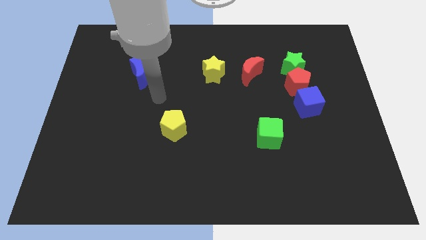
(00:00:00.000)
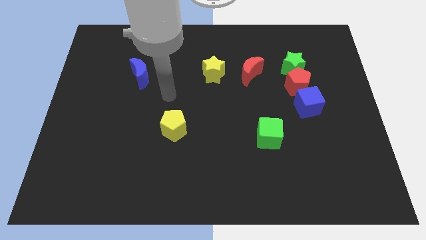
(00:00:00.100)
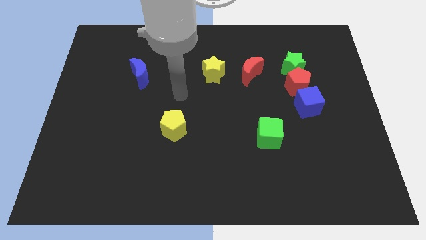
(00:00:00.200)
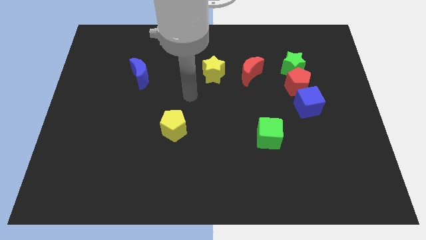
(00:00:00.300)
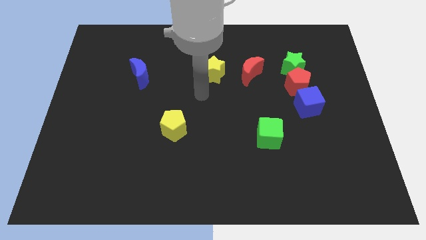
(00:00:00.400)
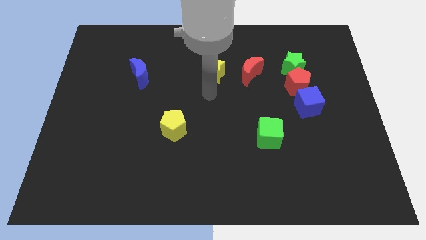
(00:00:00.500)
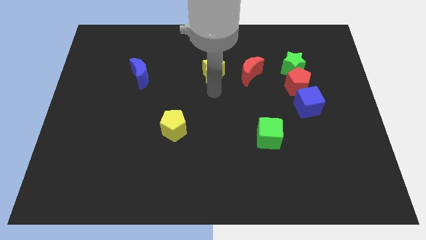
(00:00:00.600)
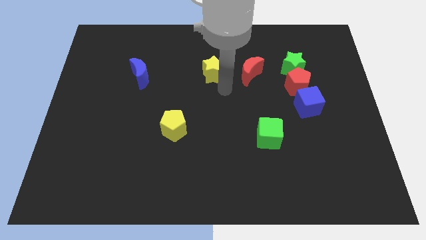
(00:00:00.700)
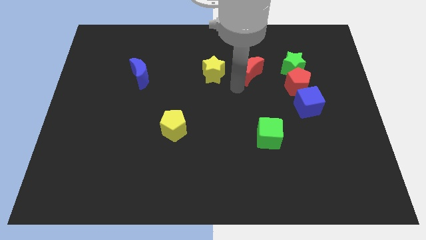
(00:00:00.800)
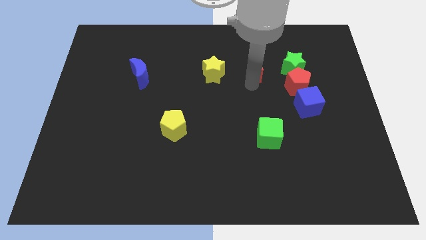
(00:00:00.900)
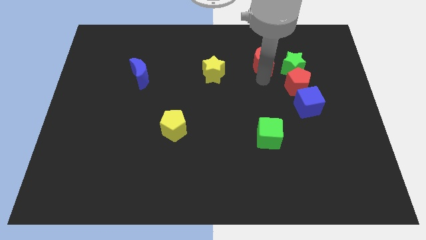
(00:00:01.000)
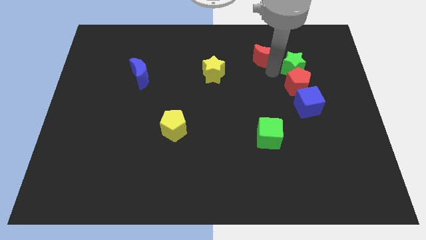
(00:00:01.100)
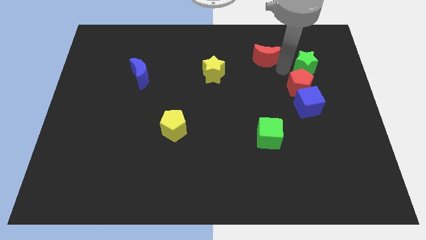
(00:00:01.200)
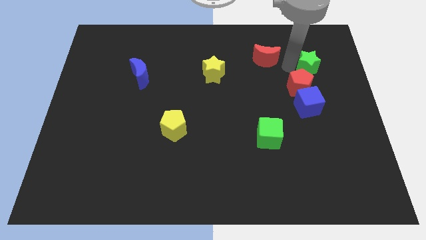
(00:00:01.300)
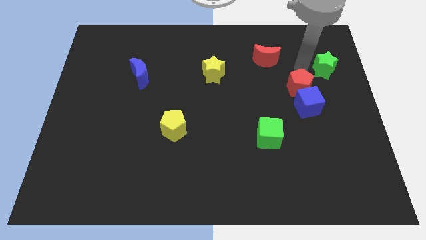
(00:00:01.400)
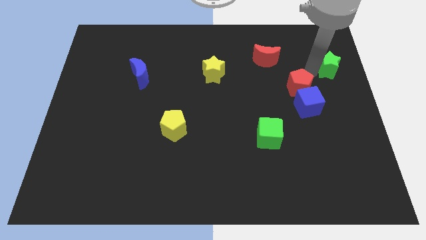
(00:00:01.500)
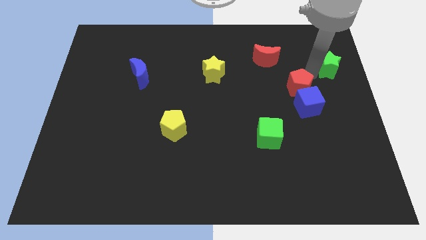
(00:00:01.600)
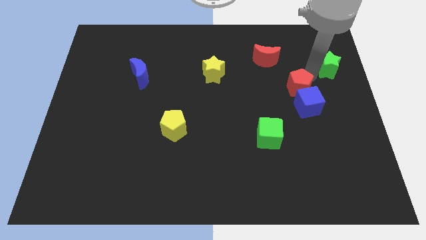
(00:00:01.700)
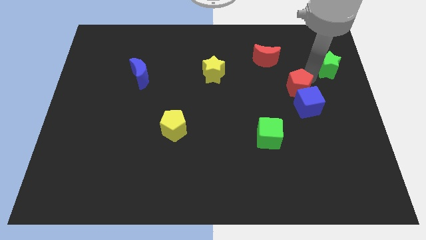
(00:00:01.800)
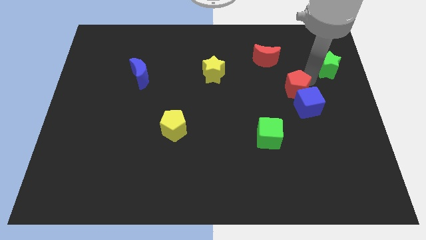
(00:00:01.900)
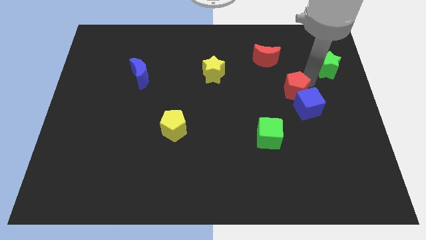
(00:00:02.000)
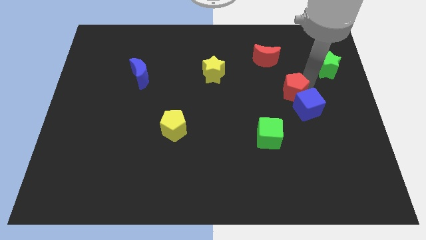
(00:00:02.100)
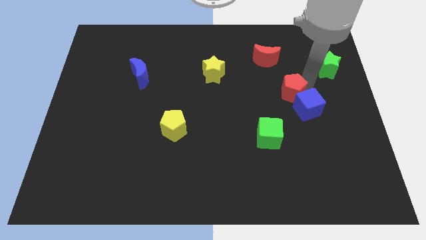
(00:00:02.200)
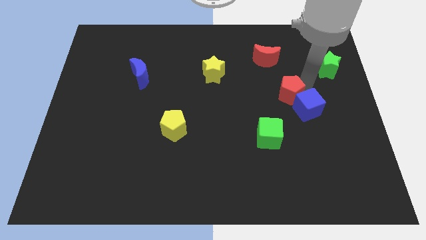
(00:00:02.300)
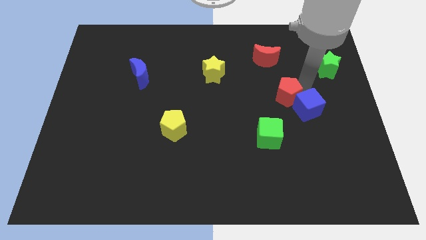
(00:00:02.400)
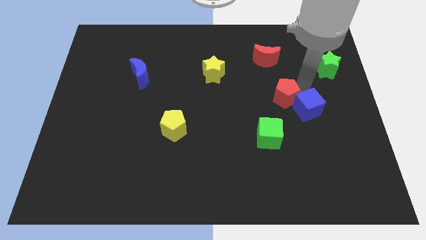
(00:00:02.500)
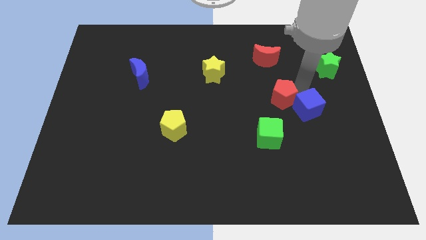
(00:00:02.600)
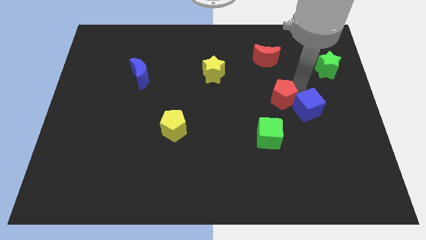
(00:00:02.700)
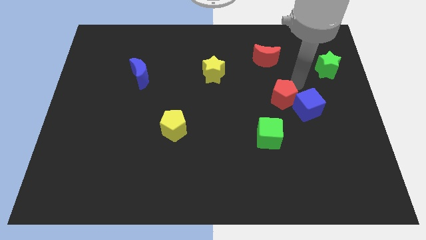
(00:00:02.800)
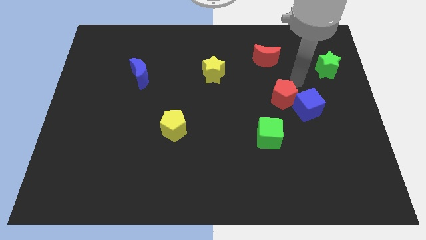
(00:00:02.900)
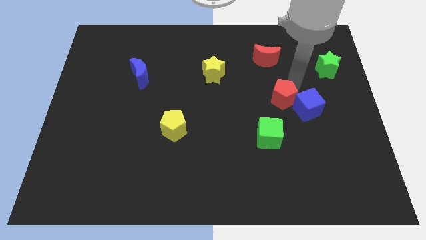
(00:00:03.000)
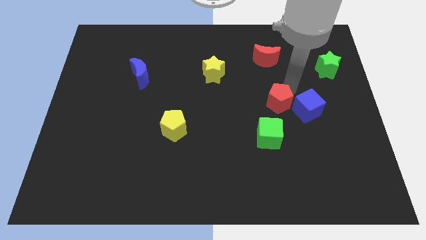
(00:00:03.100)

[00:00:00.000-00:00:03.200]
slightly push the red pentagon downwards and then to the left

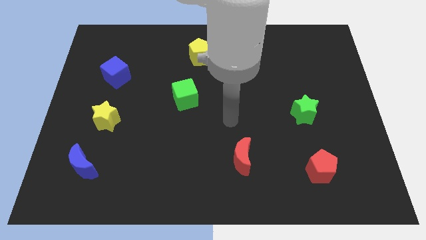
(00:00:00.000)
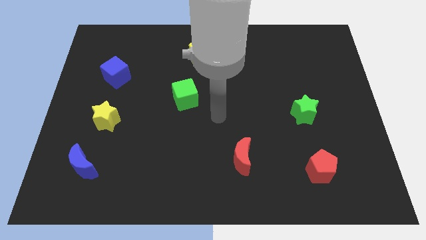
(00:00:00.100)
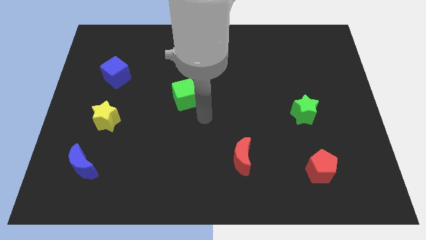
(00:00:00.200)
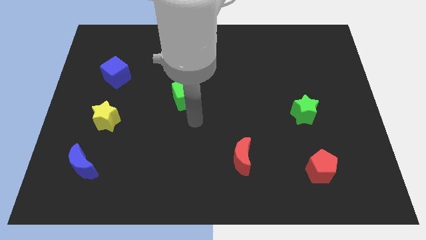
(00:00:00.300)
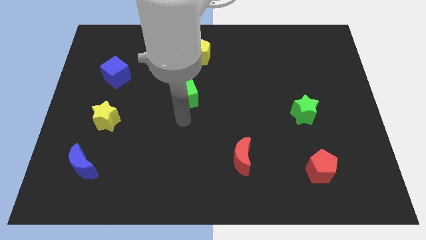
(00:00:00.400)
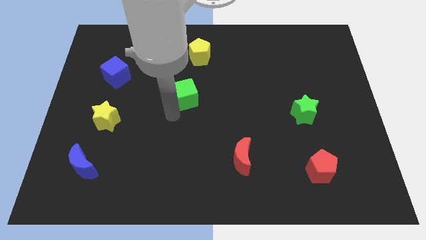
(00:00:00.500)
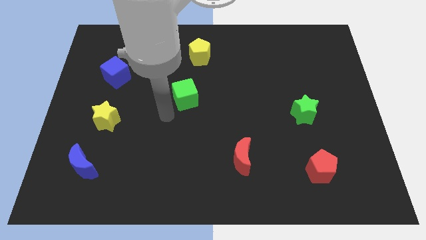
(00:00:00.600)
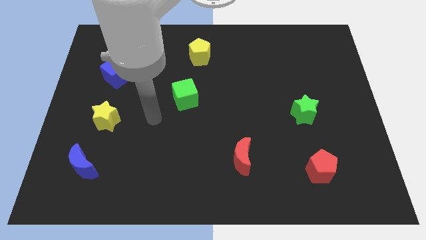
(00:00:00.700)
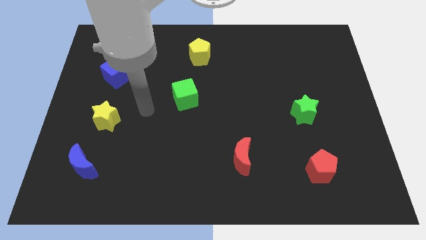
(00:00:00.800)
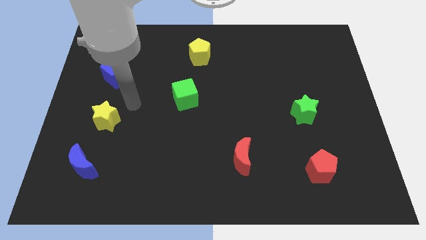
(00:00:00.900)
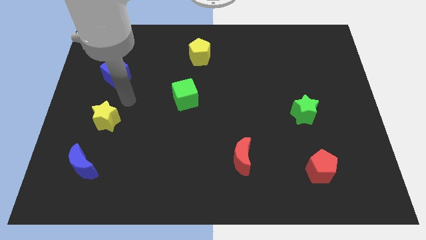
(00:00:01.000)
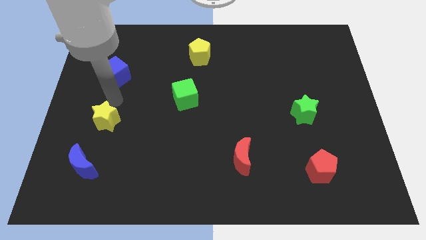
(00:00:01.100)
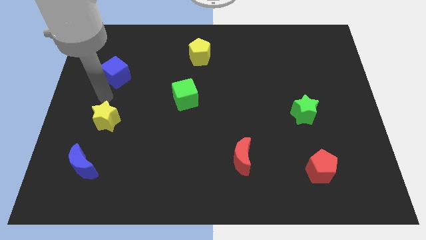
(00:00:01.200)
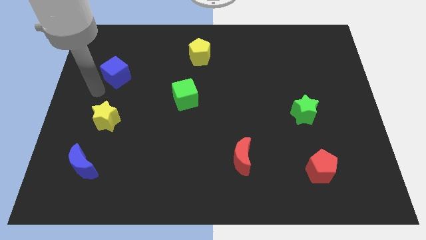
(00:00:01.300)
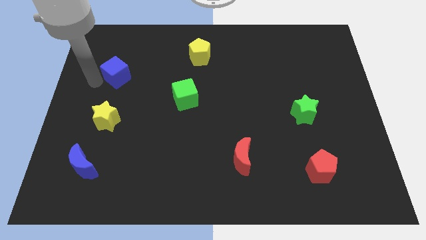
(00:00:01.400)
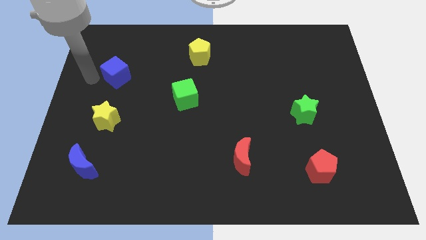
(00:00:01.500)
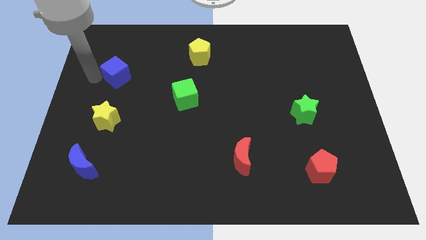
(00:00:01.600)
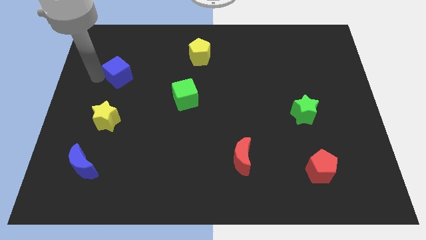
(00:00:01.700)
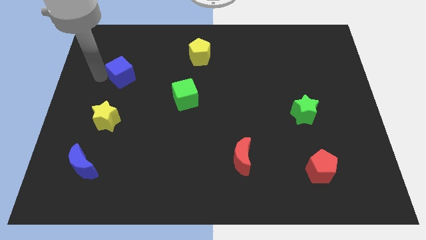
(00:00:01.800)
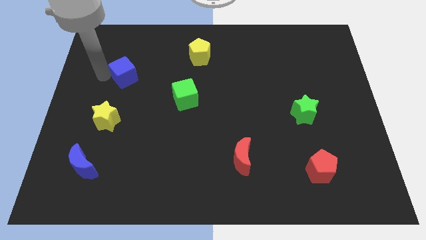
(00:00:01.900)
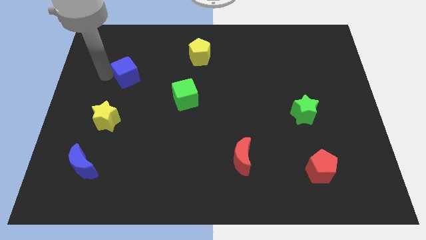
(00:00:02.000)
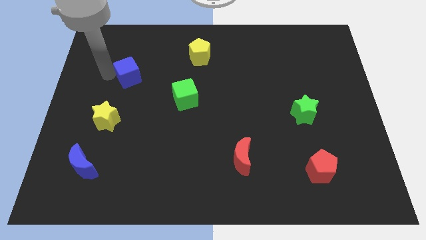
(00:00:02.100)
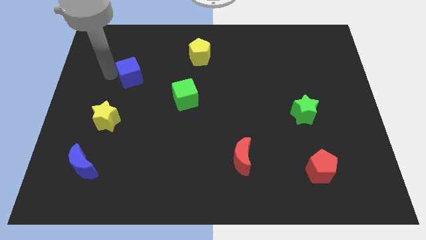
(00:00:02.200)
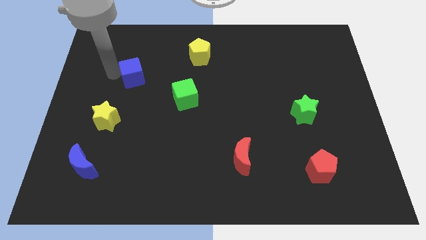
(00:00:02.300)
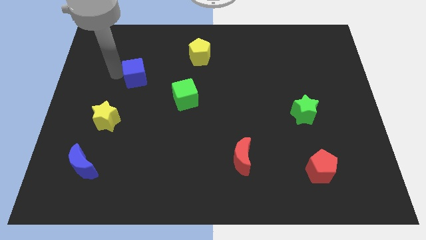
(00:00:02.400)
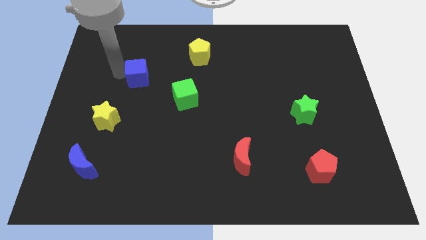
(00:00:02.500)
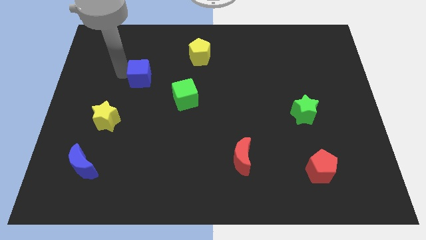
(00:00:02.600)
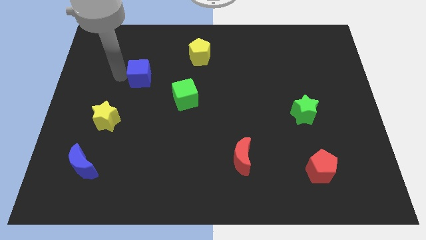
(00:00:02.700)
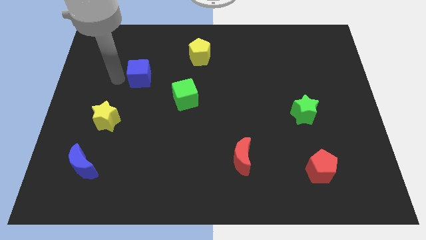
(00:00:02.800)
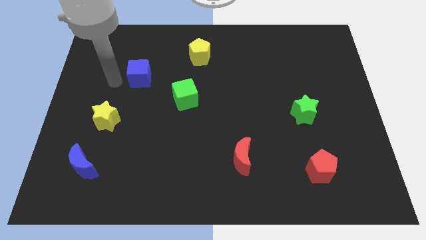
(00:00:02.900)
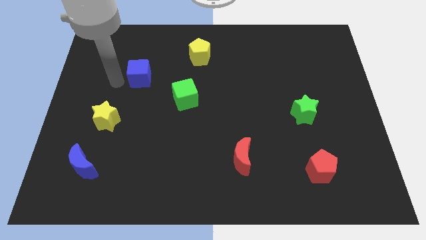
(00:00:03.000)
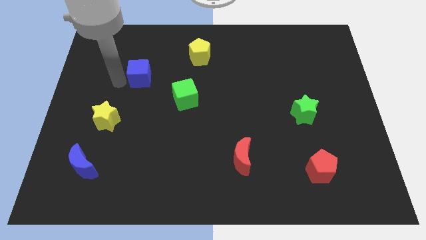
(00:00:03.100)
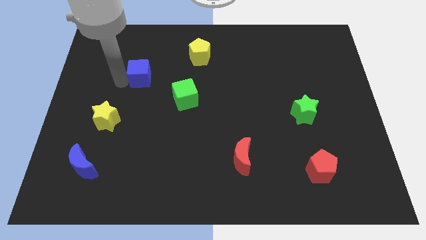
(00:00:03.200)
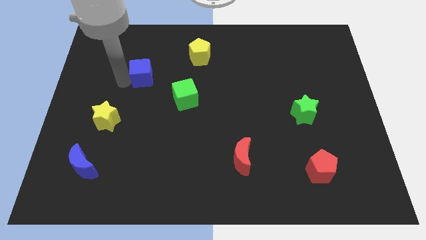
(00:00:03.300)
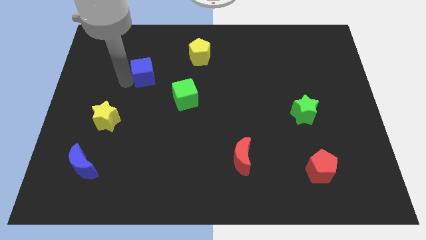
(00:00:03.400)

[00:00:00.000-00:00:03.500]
move the blue cube slightly right

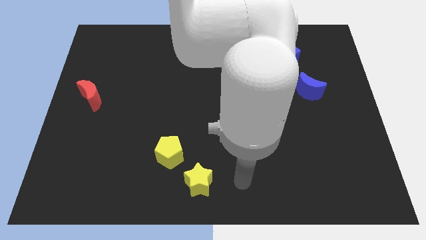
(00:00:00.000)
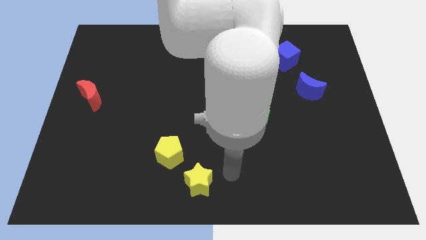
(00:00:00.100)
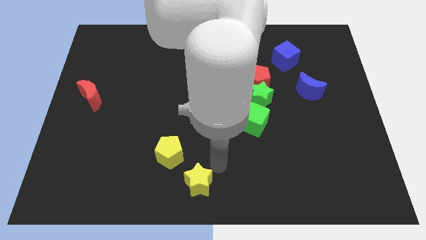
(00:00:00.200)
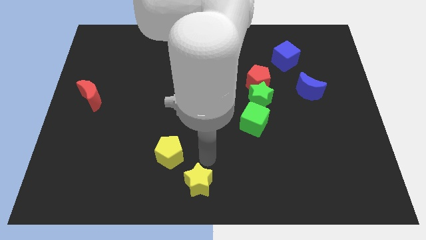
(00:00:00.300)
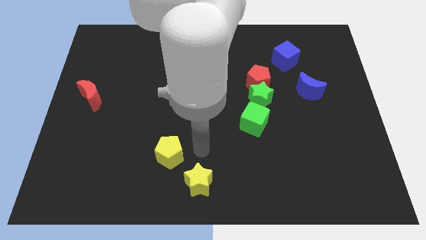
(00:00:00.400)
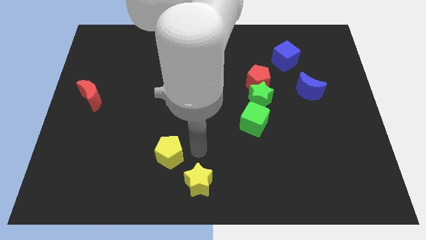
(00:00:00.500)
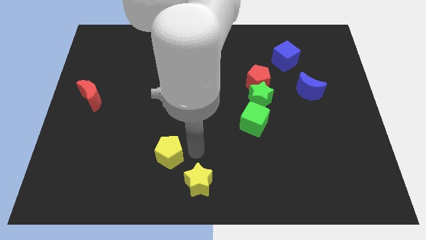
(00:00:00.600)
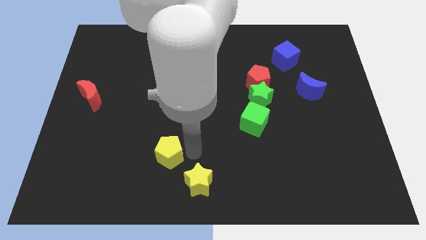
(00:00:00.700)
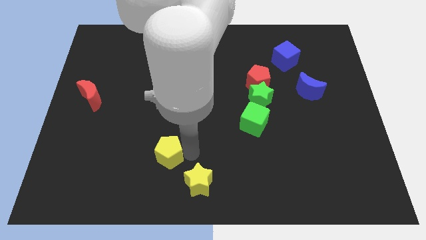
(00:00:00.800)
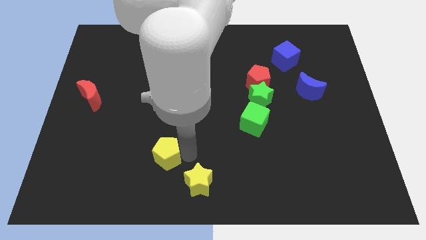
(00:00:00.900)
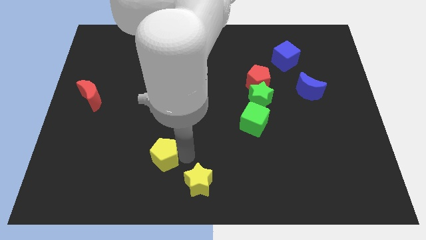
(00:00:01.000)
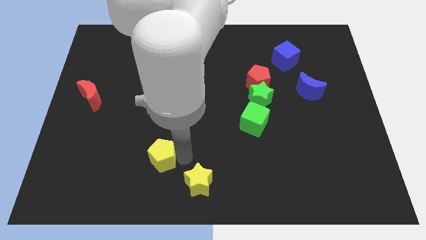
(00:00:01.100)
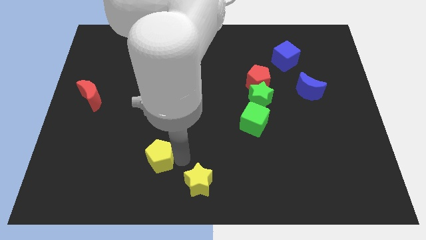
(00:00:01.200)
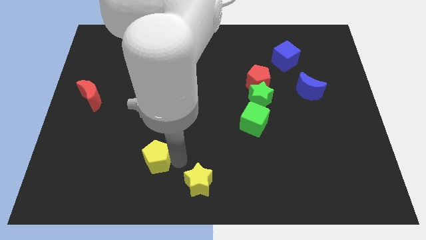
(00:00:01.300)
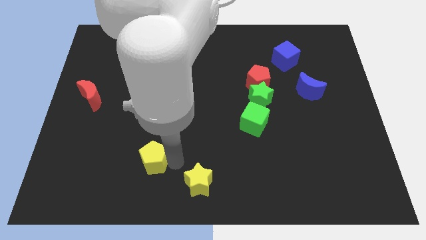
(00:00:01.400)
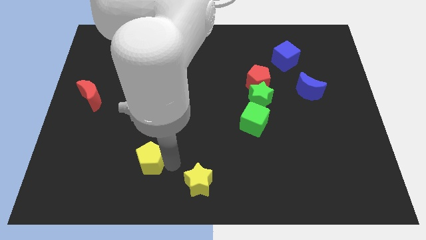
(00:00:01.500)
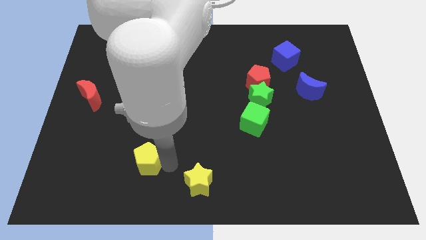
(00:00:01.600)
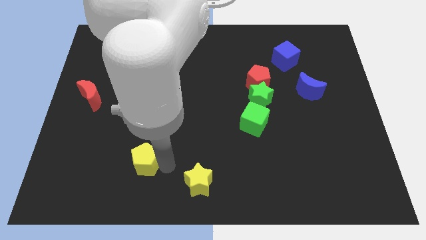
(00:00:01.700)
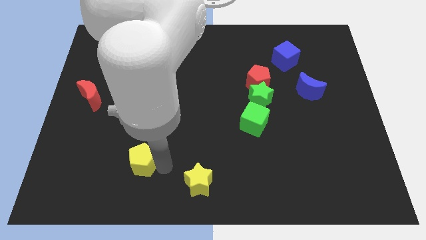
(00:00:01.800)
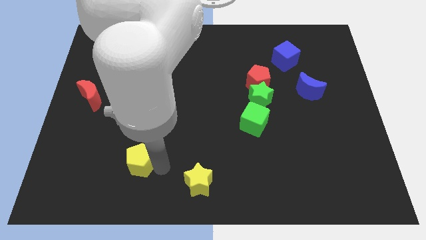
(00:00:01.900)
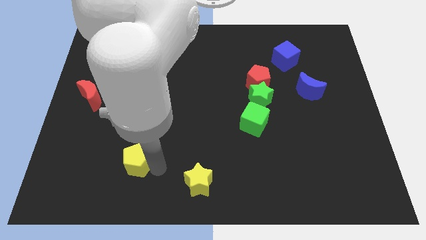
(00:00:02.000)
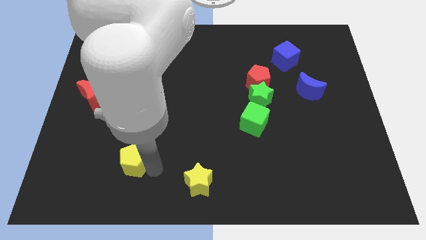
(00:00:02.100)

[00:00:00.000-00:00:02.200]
slide the yellow pentagon slightly left
